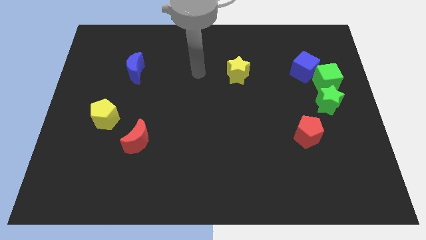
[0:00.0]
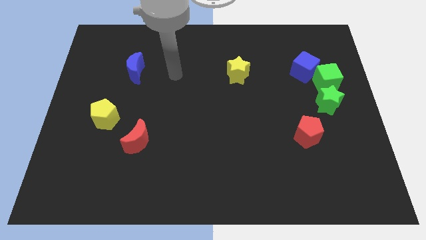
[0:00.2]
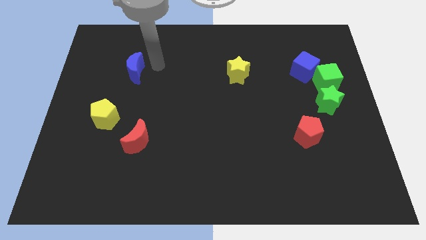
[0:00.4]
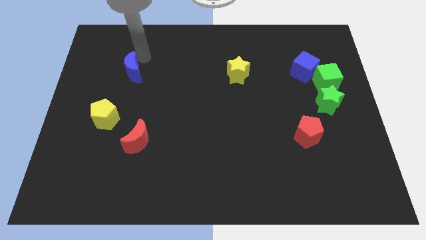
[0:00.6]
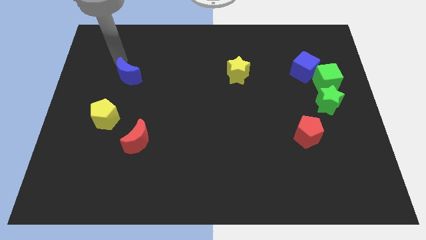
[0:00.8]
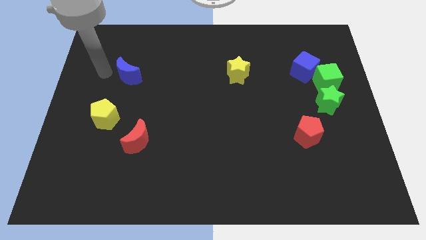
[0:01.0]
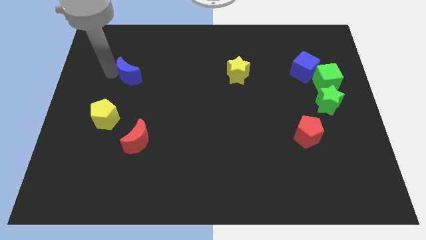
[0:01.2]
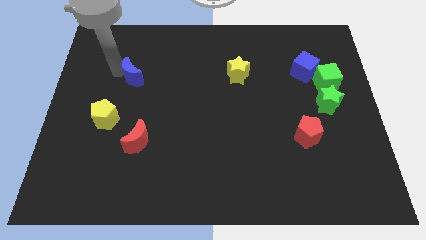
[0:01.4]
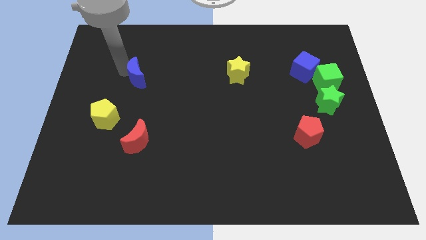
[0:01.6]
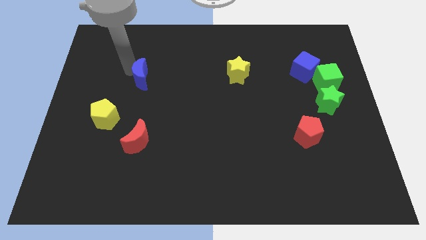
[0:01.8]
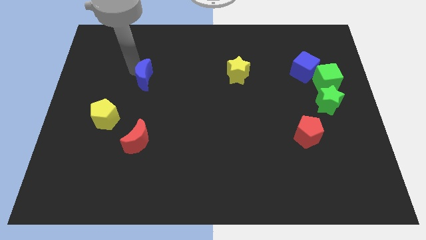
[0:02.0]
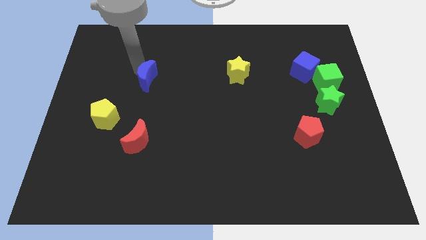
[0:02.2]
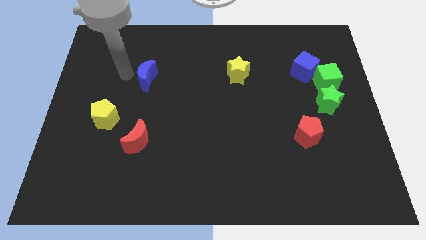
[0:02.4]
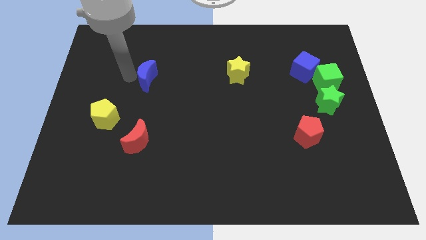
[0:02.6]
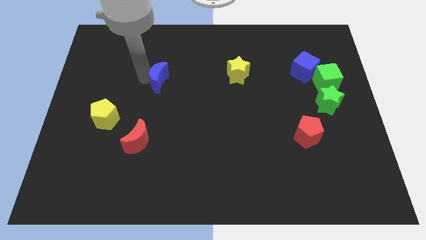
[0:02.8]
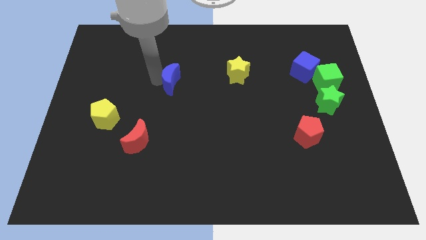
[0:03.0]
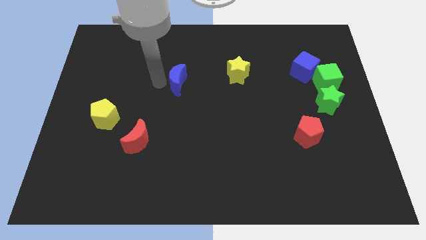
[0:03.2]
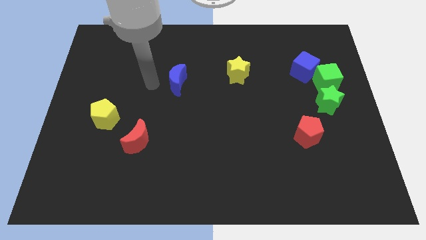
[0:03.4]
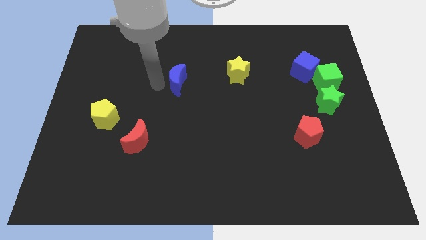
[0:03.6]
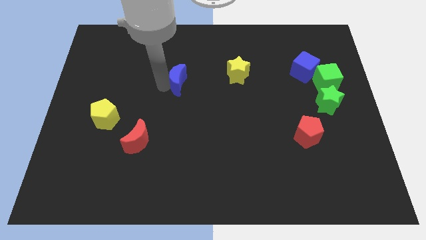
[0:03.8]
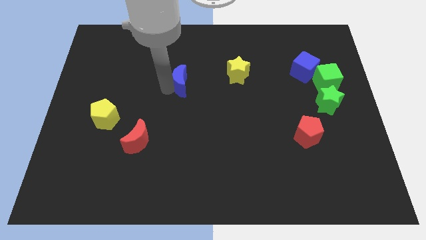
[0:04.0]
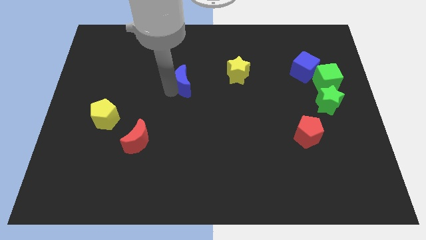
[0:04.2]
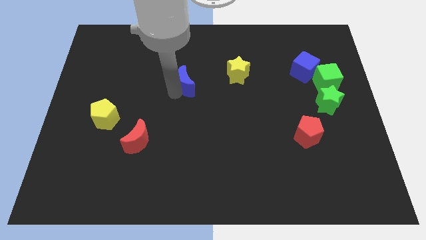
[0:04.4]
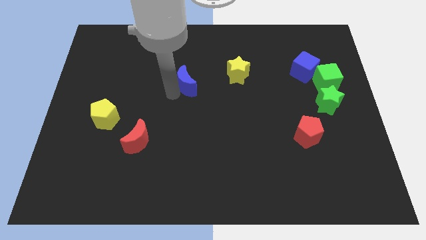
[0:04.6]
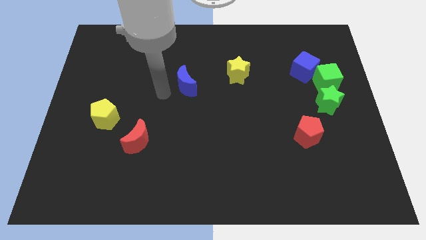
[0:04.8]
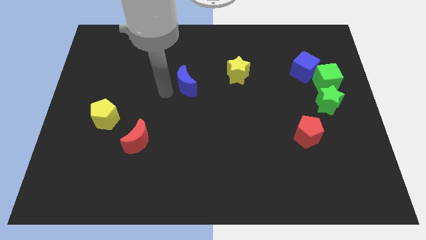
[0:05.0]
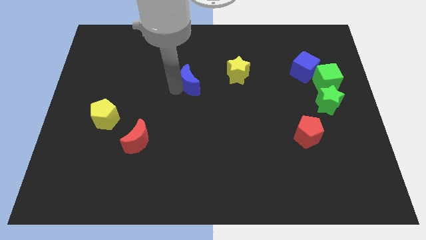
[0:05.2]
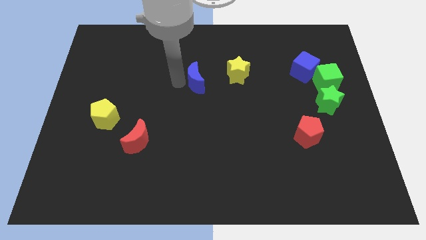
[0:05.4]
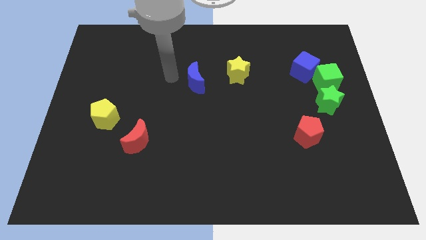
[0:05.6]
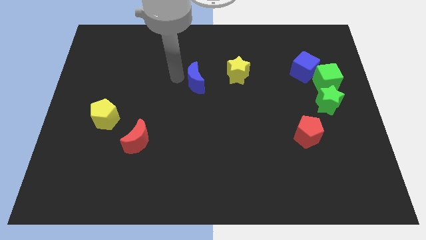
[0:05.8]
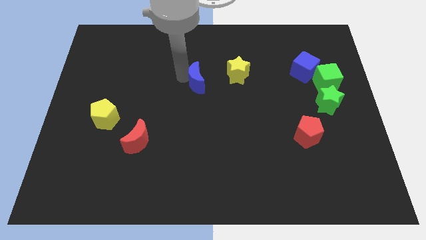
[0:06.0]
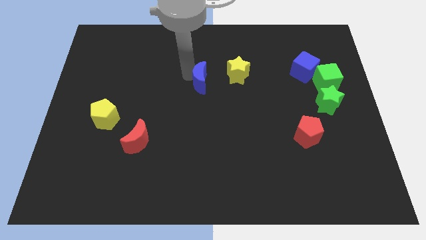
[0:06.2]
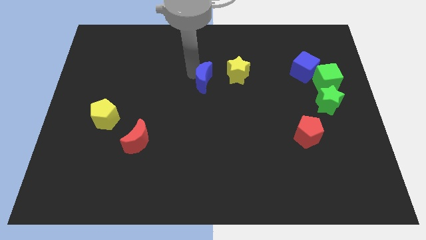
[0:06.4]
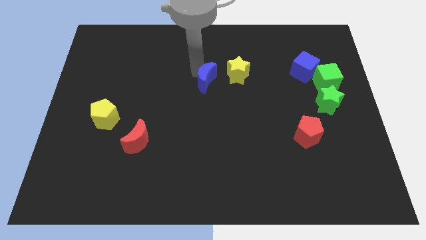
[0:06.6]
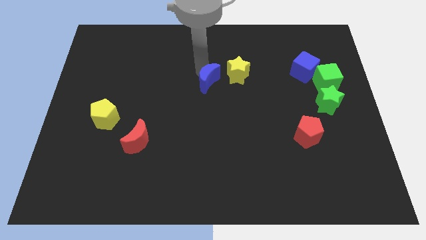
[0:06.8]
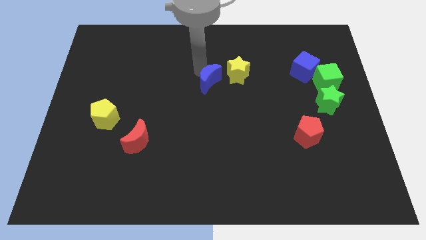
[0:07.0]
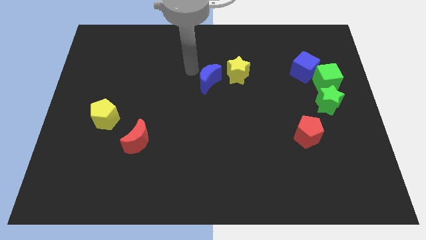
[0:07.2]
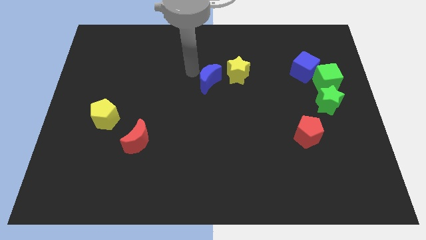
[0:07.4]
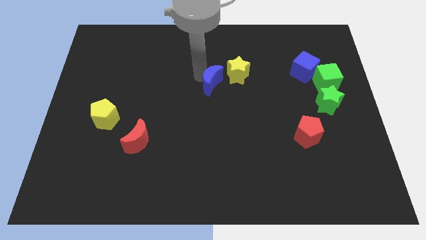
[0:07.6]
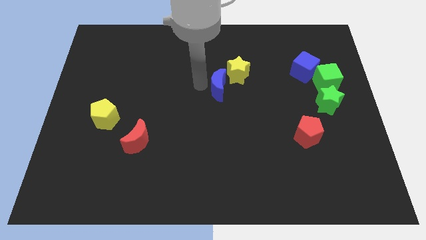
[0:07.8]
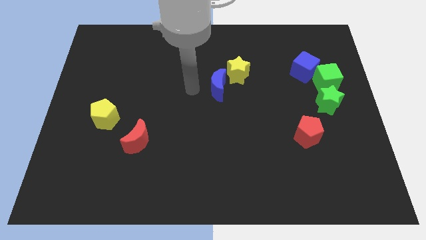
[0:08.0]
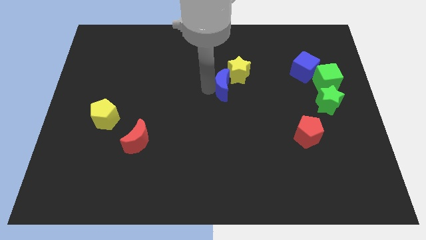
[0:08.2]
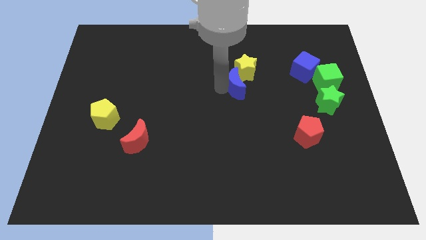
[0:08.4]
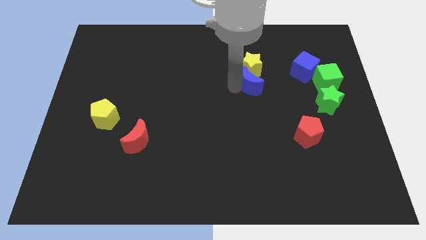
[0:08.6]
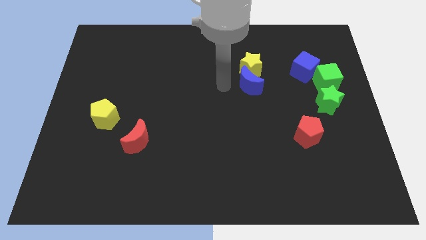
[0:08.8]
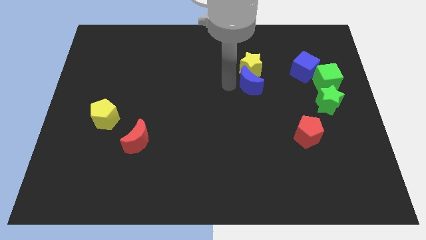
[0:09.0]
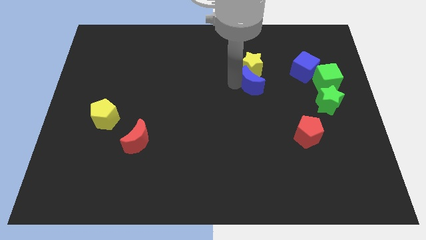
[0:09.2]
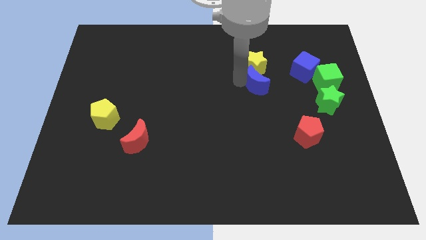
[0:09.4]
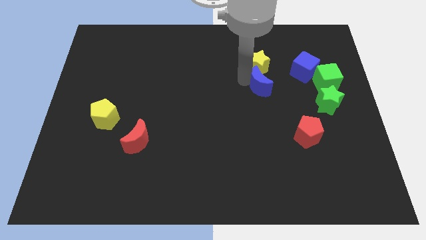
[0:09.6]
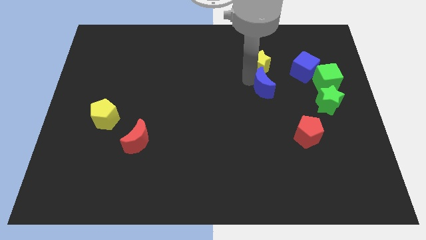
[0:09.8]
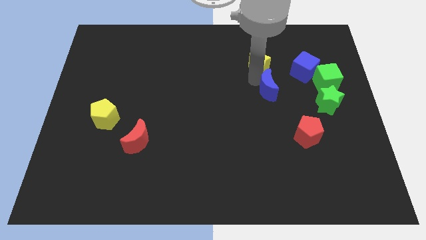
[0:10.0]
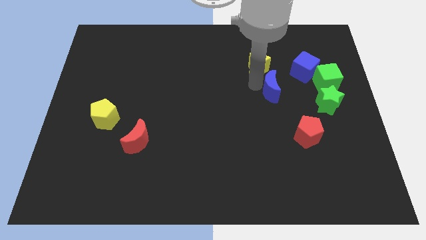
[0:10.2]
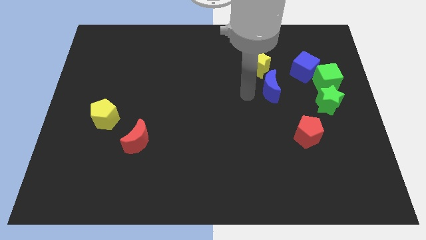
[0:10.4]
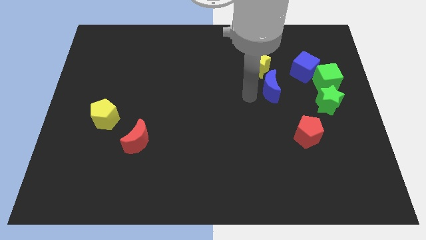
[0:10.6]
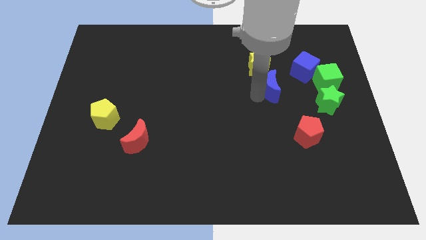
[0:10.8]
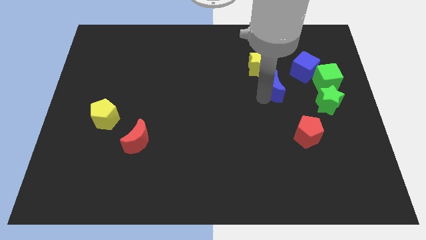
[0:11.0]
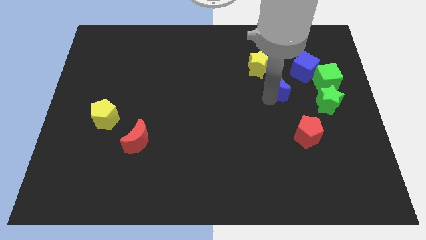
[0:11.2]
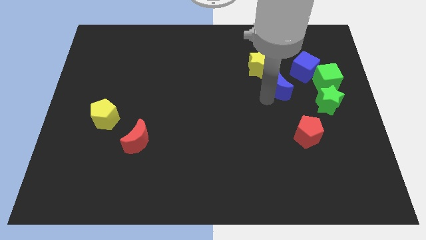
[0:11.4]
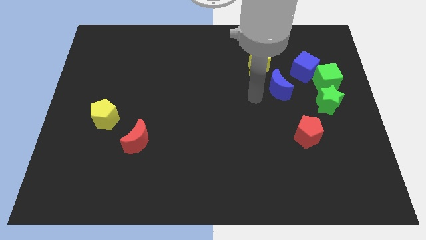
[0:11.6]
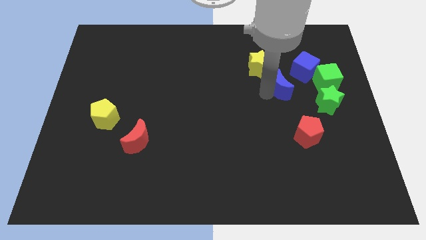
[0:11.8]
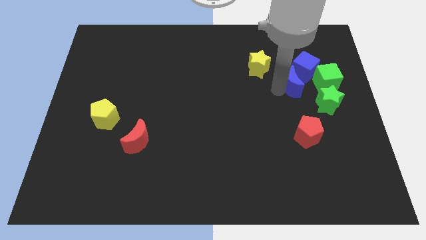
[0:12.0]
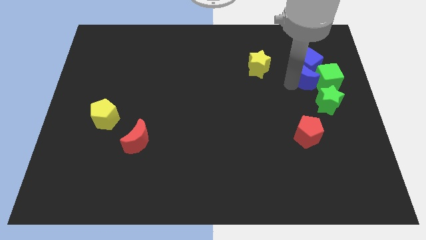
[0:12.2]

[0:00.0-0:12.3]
move the blue moon to the green cube

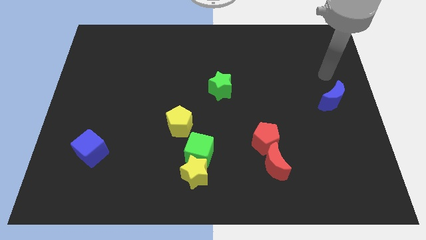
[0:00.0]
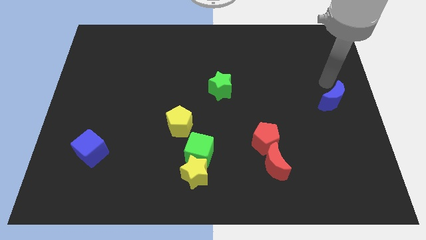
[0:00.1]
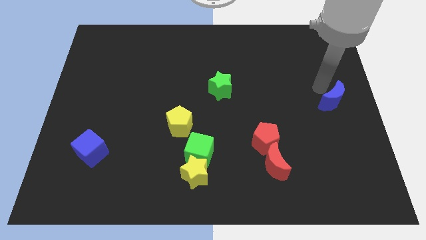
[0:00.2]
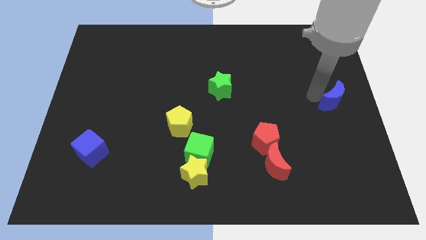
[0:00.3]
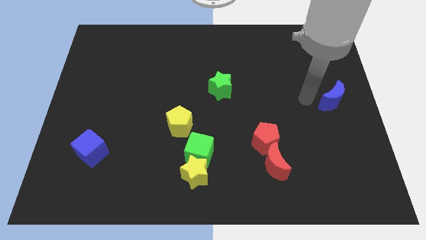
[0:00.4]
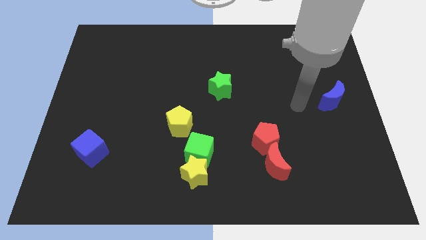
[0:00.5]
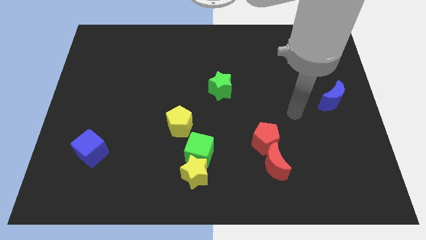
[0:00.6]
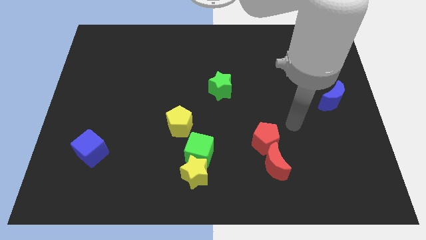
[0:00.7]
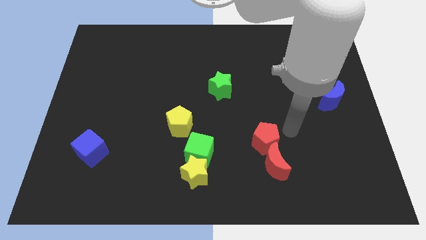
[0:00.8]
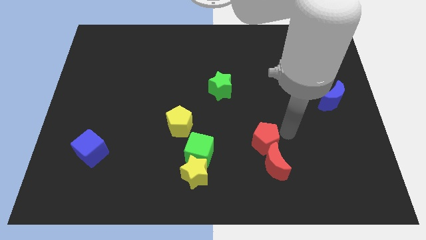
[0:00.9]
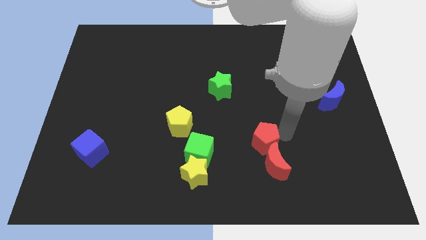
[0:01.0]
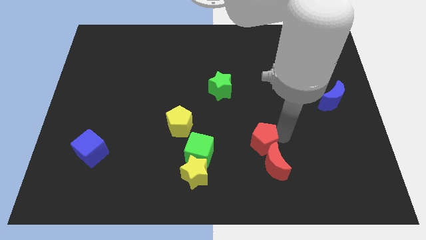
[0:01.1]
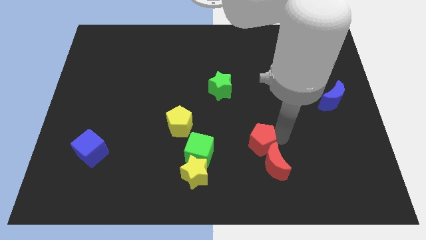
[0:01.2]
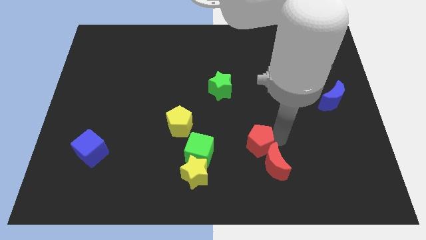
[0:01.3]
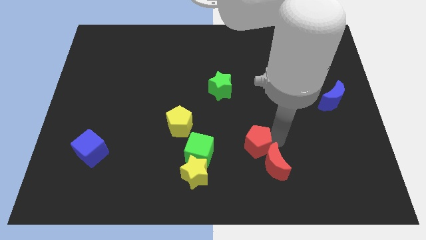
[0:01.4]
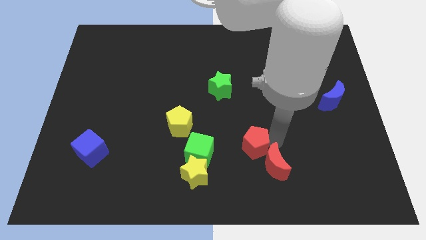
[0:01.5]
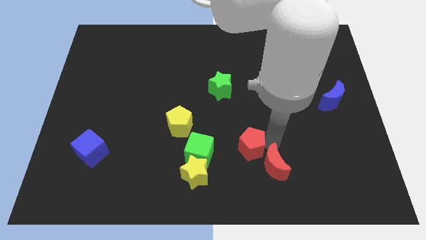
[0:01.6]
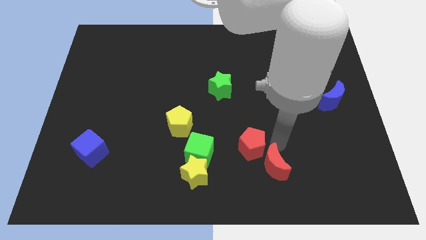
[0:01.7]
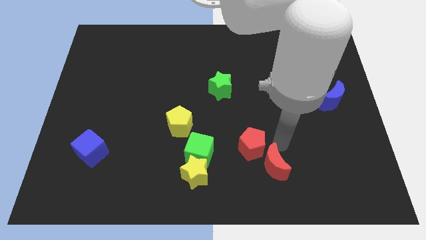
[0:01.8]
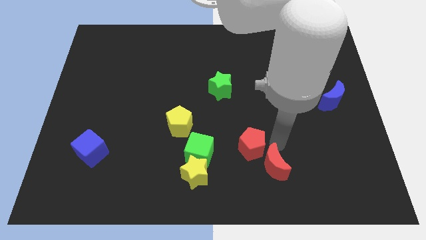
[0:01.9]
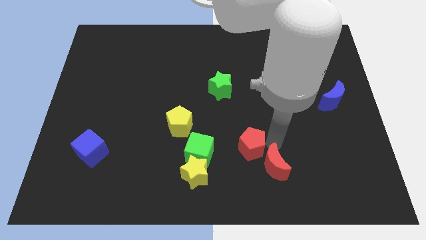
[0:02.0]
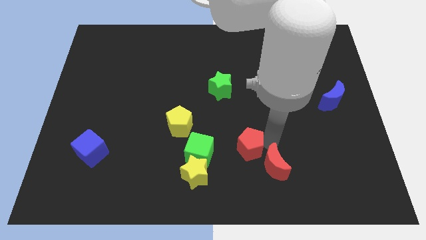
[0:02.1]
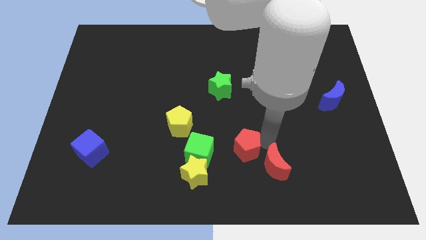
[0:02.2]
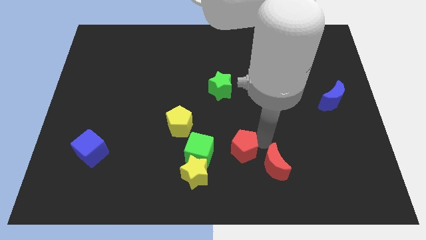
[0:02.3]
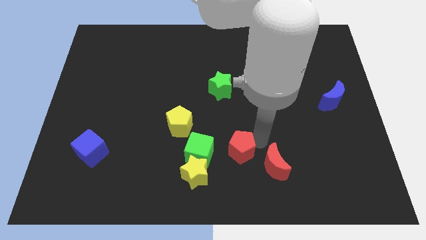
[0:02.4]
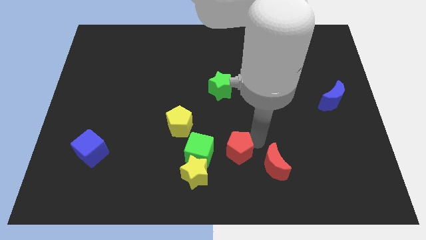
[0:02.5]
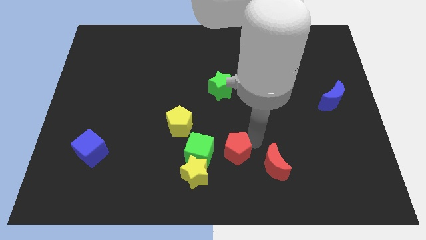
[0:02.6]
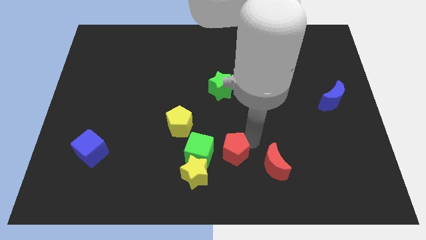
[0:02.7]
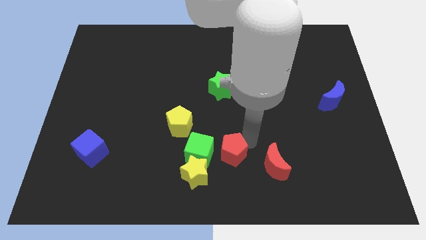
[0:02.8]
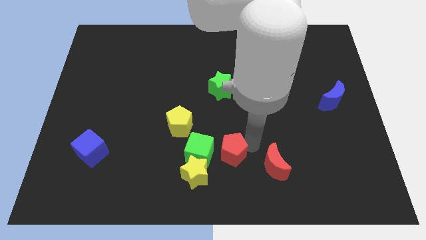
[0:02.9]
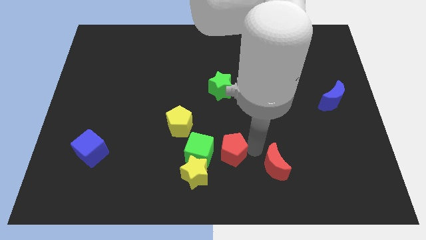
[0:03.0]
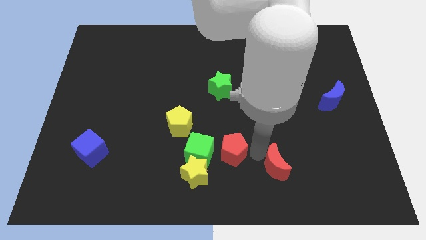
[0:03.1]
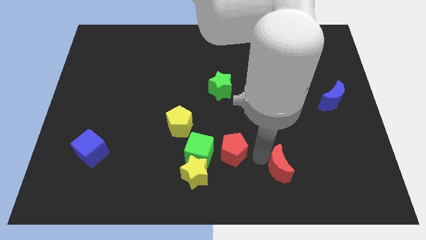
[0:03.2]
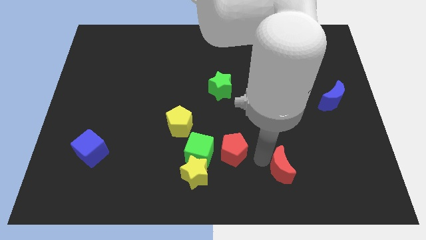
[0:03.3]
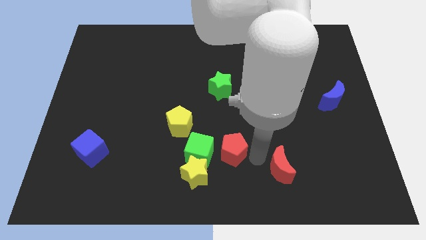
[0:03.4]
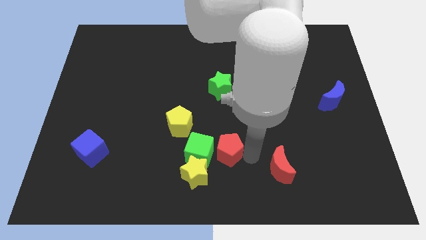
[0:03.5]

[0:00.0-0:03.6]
push the red pentagon to the green cube
